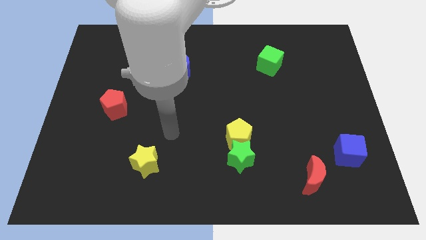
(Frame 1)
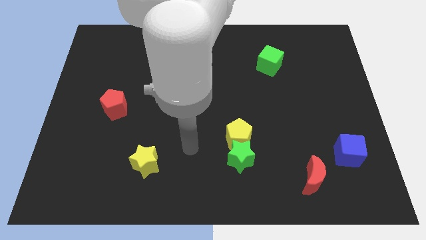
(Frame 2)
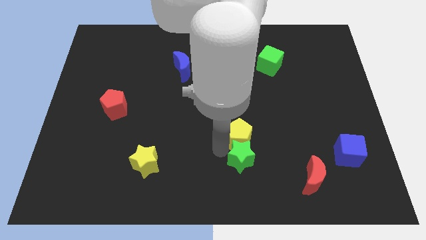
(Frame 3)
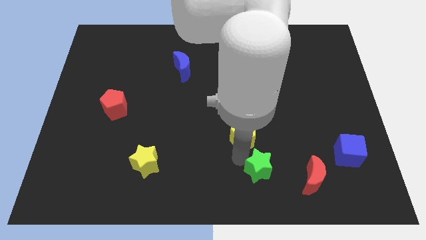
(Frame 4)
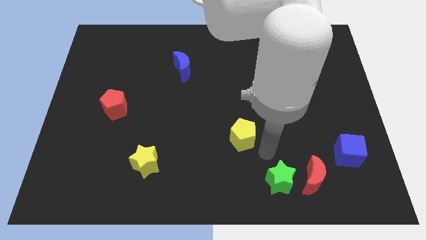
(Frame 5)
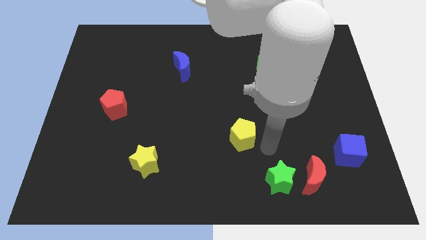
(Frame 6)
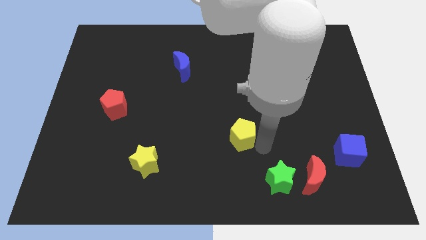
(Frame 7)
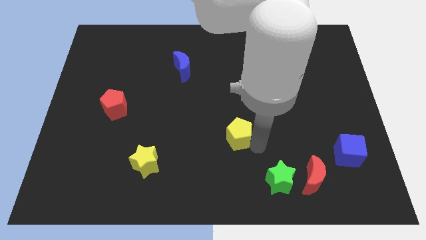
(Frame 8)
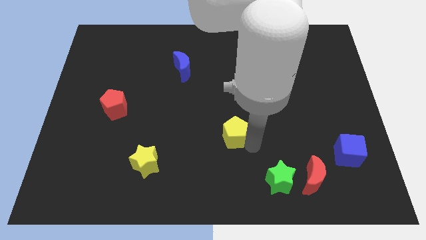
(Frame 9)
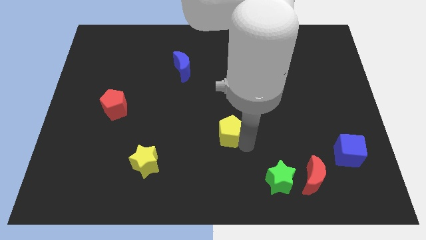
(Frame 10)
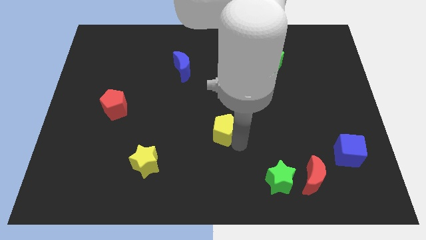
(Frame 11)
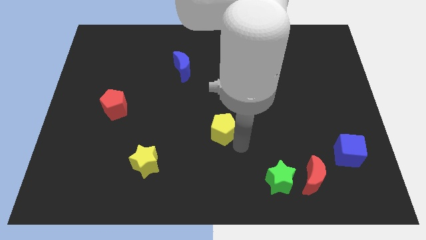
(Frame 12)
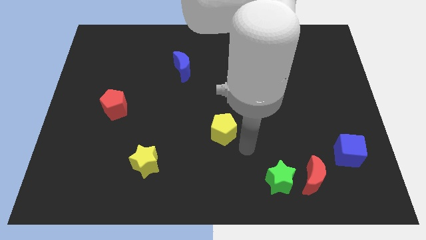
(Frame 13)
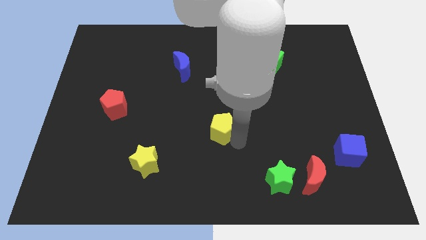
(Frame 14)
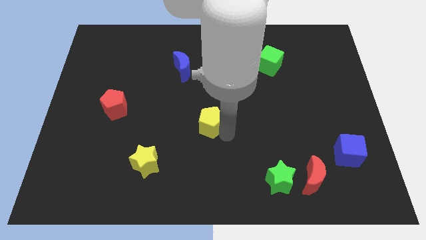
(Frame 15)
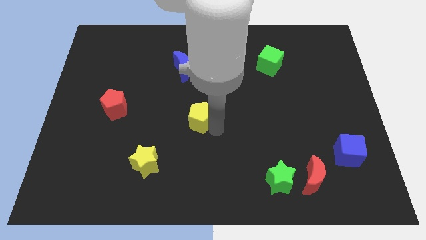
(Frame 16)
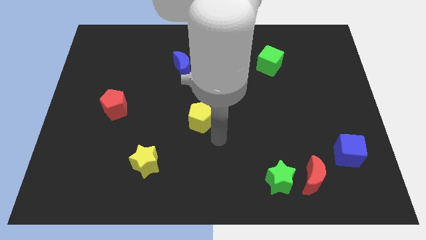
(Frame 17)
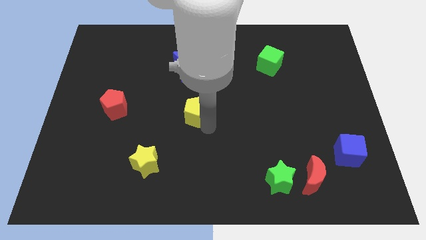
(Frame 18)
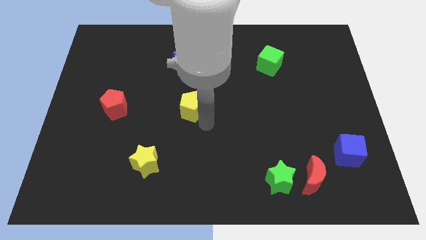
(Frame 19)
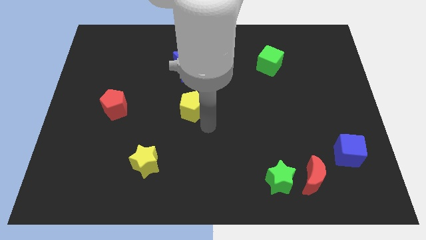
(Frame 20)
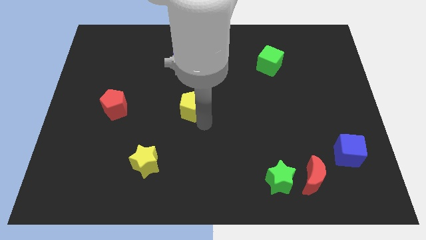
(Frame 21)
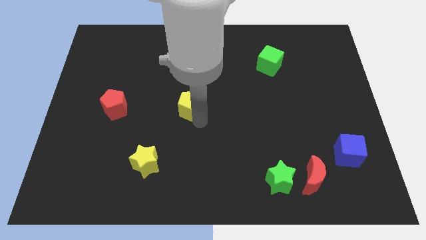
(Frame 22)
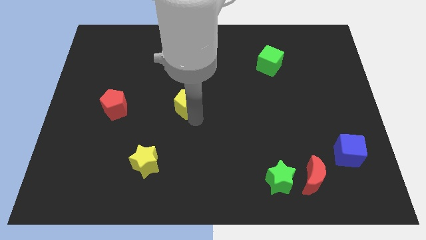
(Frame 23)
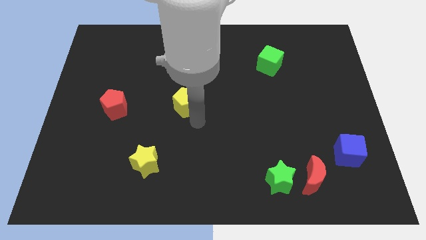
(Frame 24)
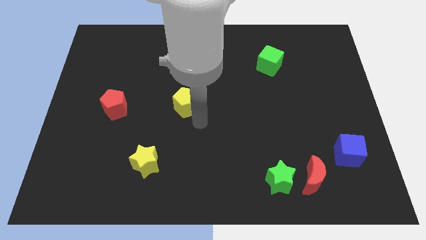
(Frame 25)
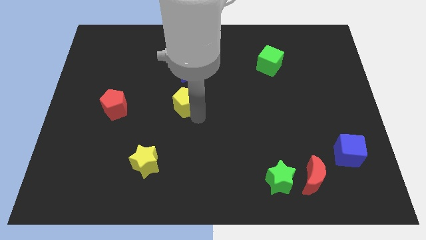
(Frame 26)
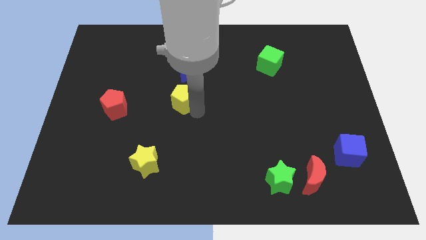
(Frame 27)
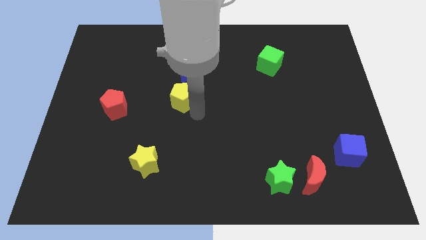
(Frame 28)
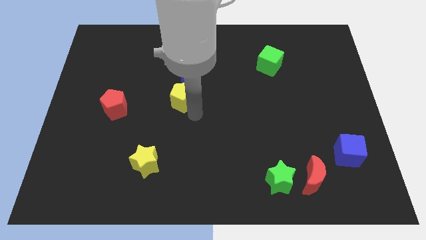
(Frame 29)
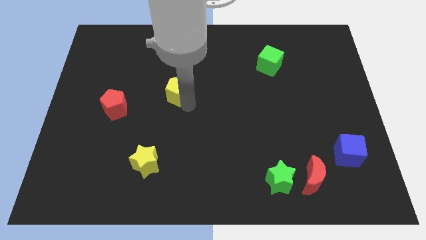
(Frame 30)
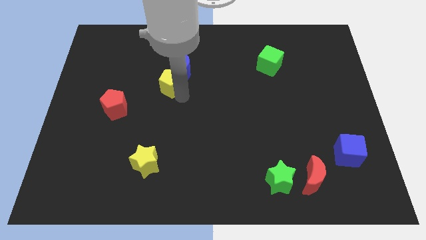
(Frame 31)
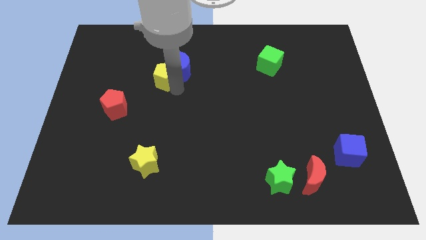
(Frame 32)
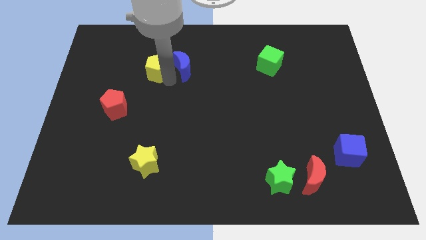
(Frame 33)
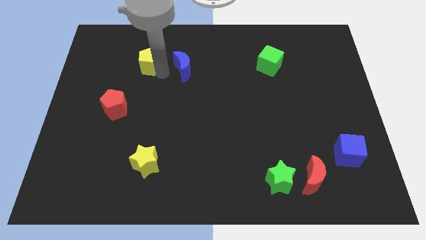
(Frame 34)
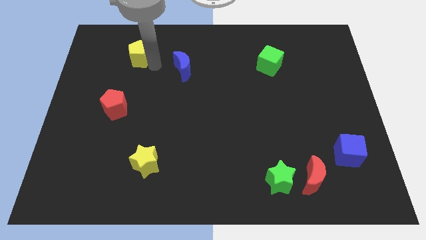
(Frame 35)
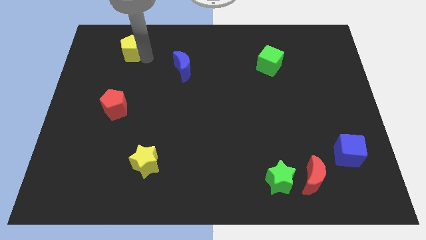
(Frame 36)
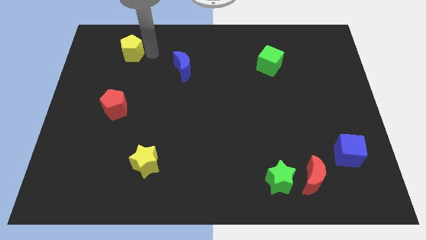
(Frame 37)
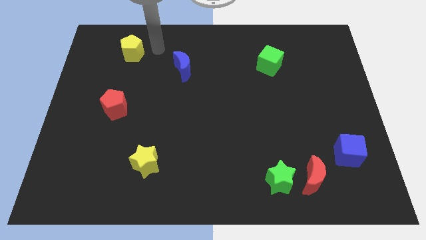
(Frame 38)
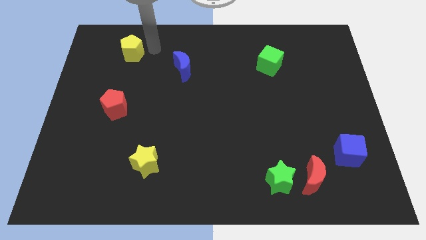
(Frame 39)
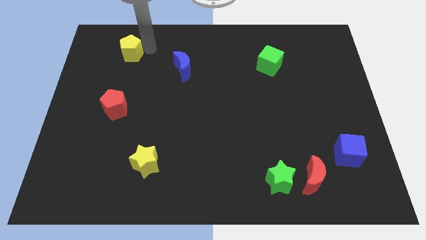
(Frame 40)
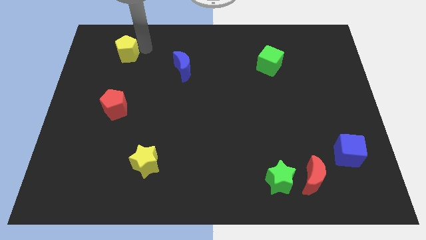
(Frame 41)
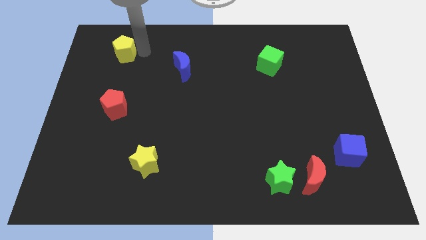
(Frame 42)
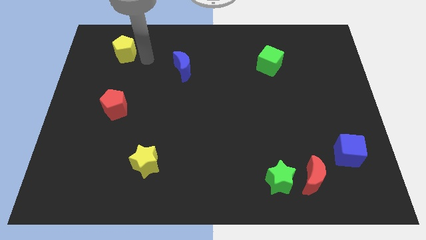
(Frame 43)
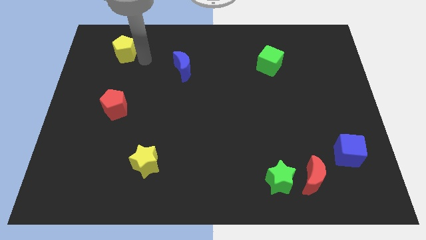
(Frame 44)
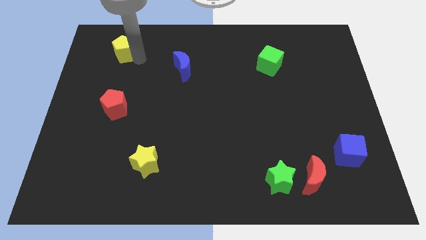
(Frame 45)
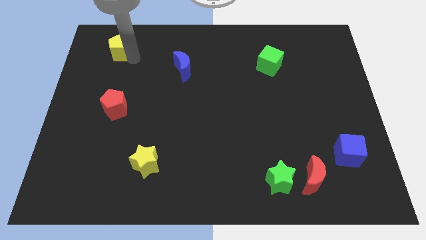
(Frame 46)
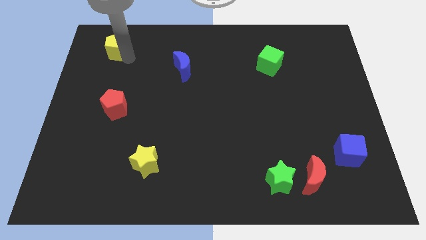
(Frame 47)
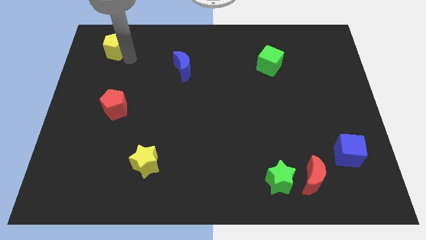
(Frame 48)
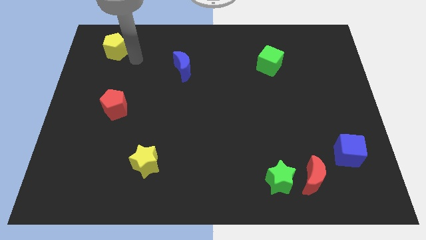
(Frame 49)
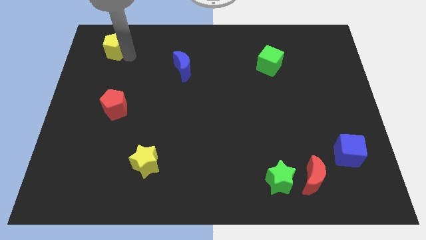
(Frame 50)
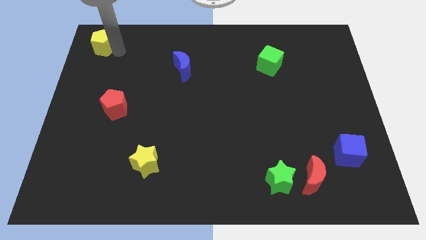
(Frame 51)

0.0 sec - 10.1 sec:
slide the yellow pentagon to the top left of the board

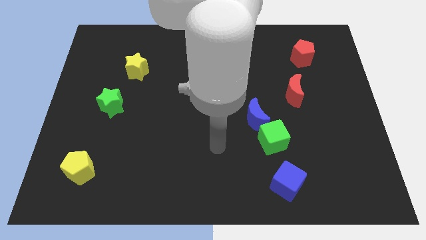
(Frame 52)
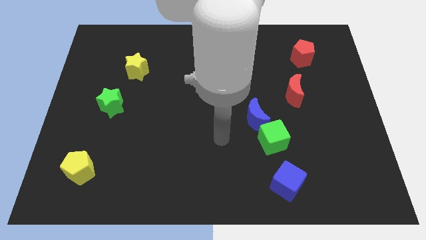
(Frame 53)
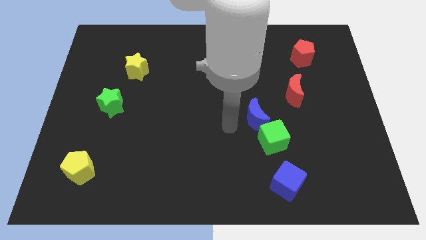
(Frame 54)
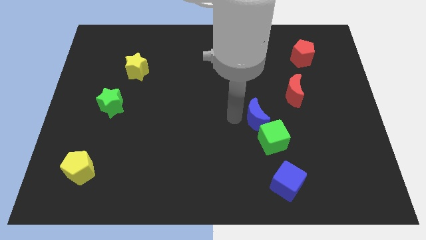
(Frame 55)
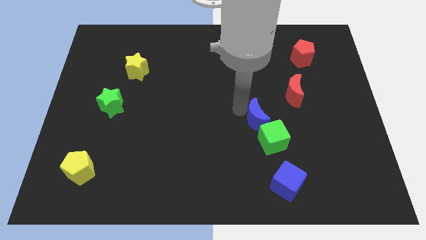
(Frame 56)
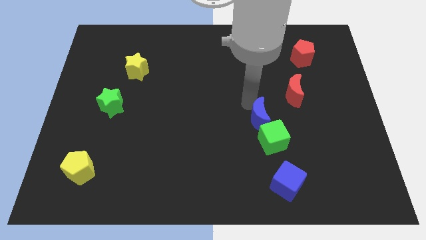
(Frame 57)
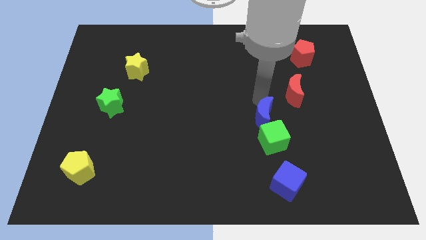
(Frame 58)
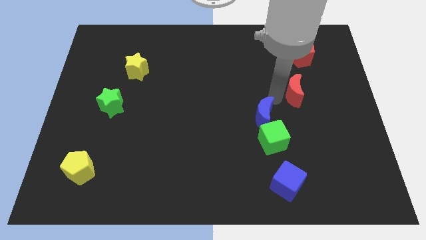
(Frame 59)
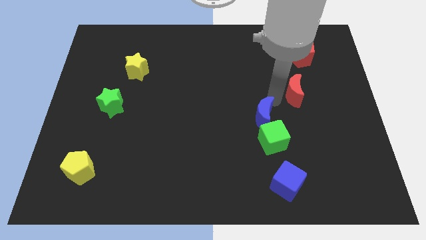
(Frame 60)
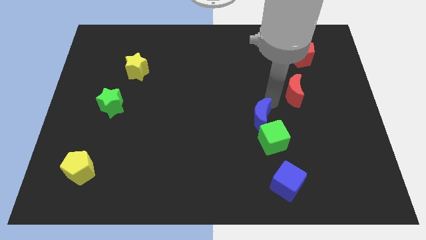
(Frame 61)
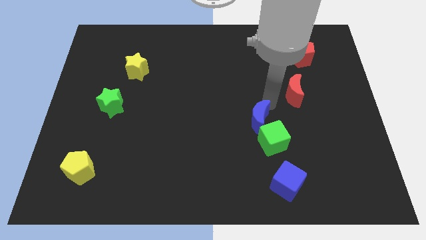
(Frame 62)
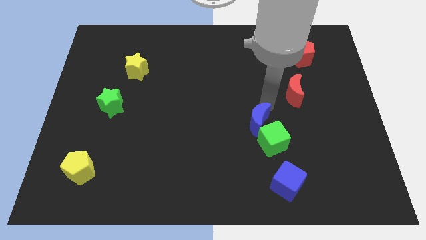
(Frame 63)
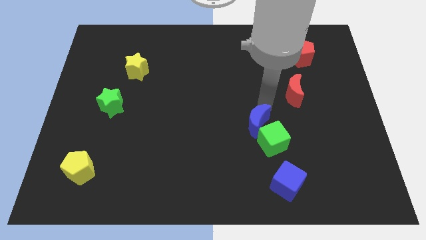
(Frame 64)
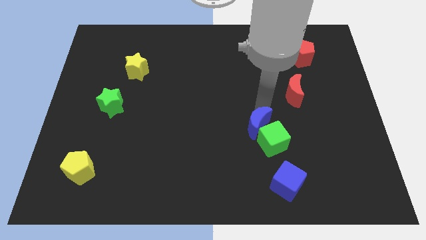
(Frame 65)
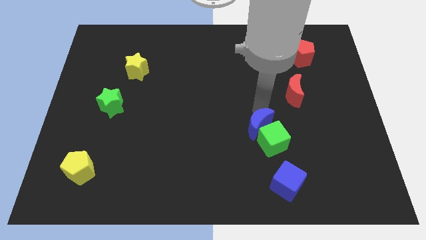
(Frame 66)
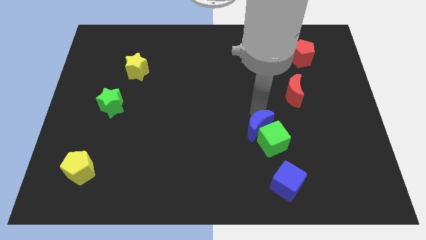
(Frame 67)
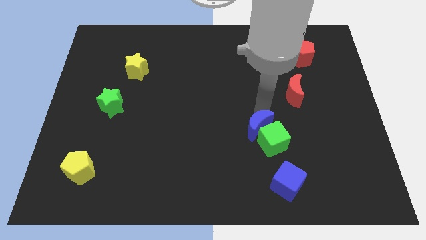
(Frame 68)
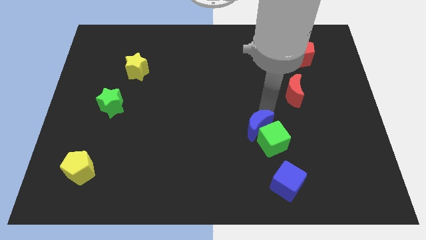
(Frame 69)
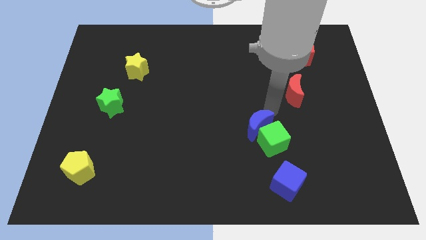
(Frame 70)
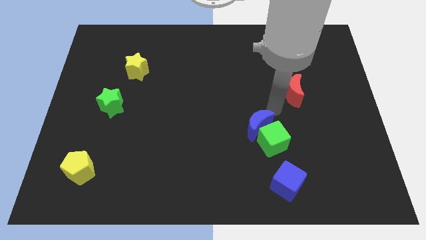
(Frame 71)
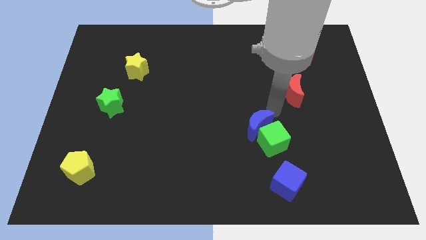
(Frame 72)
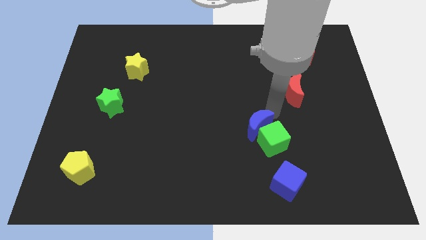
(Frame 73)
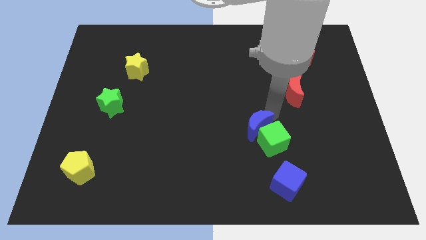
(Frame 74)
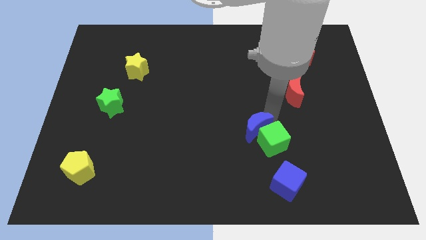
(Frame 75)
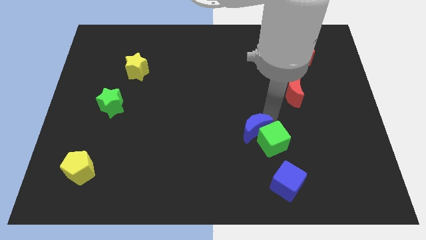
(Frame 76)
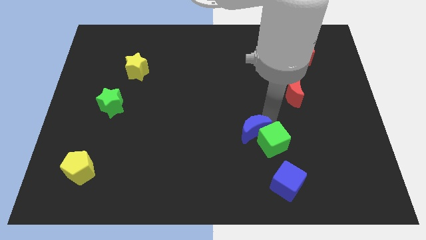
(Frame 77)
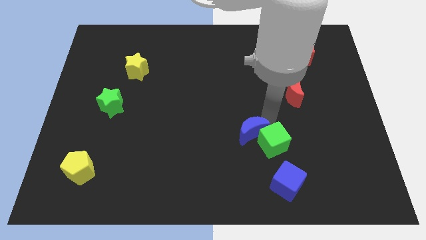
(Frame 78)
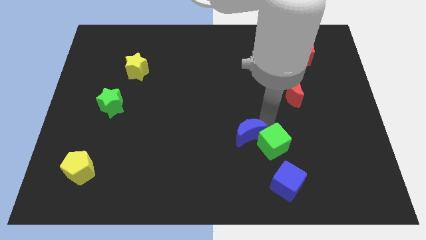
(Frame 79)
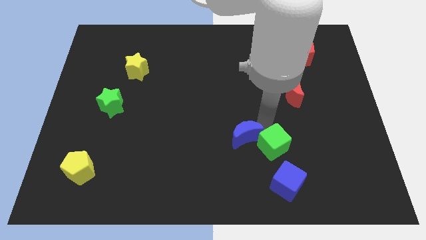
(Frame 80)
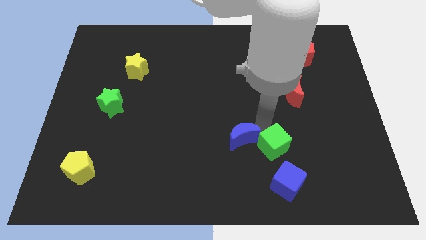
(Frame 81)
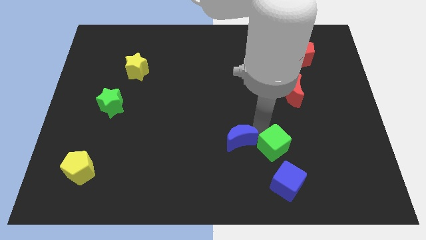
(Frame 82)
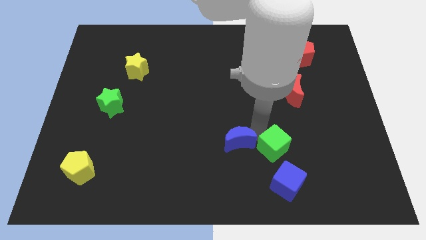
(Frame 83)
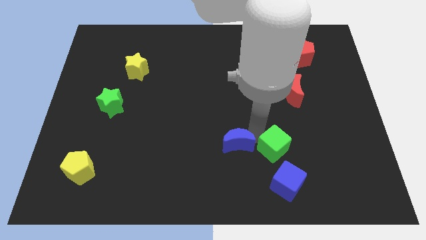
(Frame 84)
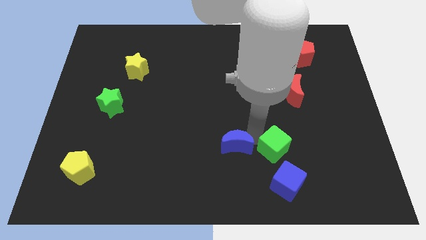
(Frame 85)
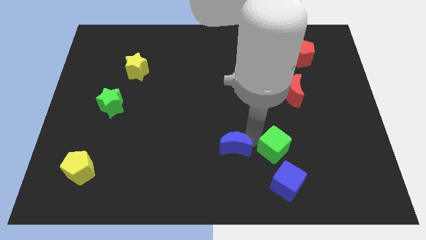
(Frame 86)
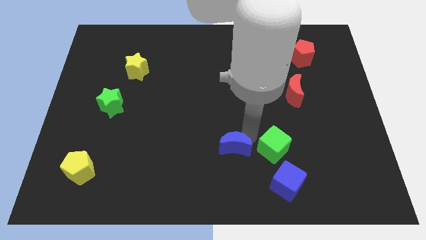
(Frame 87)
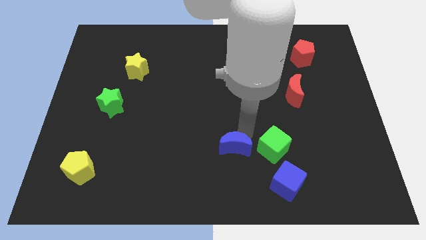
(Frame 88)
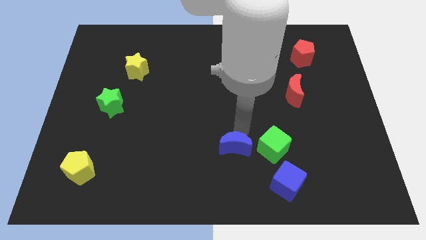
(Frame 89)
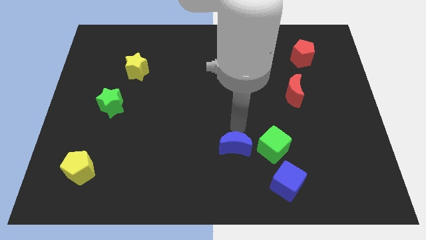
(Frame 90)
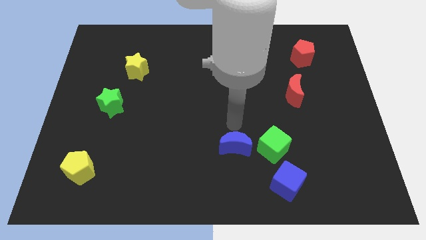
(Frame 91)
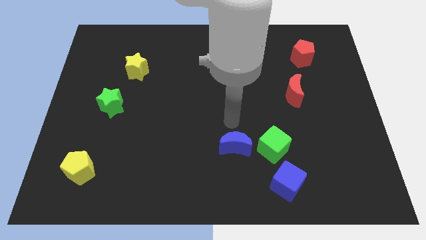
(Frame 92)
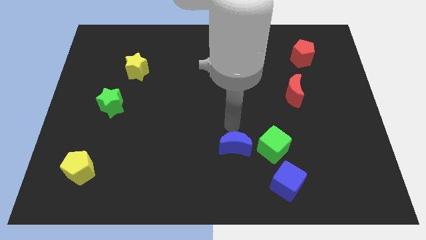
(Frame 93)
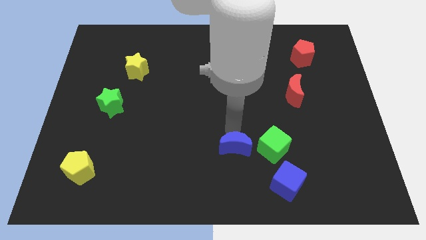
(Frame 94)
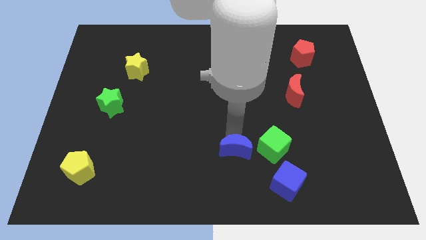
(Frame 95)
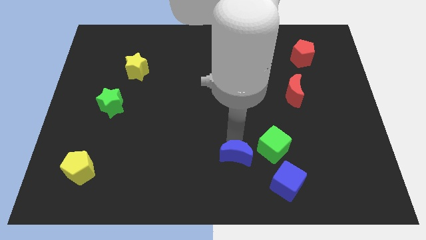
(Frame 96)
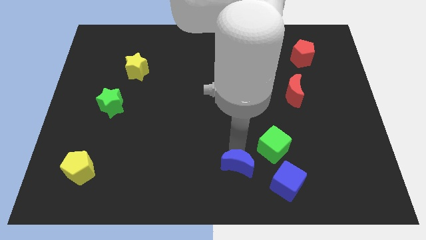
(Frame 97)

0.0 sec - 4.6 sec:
slide the blue moon to the bottom side
